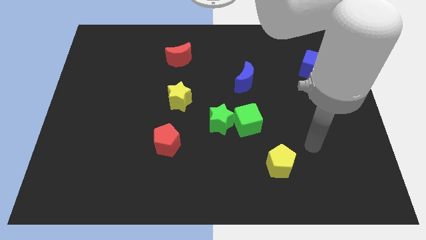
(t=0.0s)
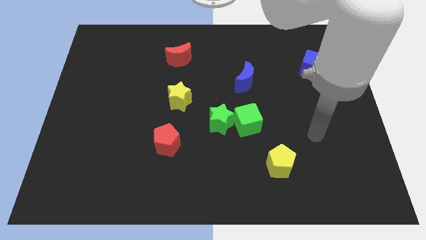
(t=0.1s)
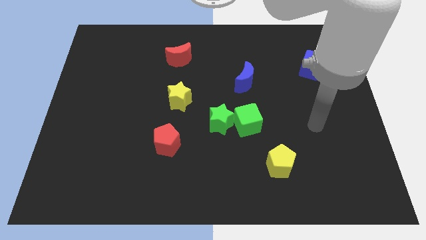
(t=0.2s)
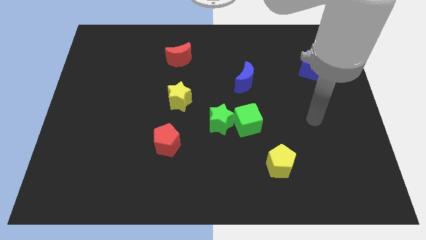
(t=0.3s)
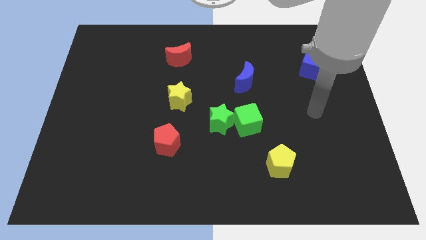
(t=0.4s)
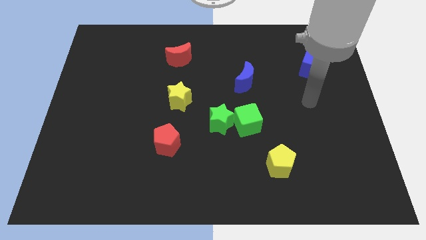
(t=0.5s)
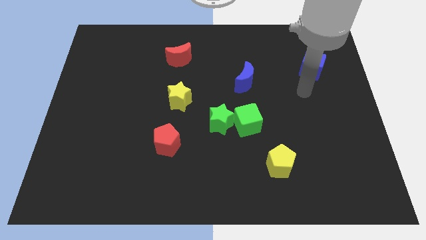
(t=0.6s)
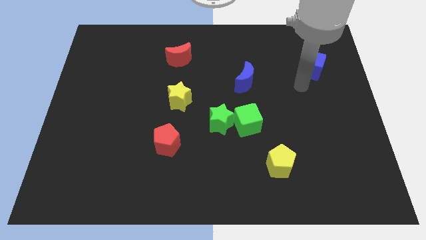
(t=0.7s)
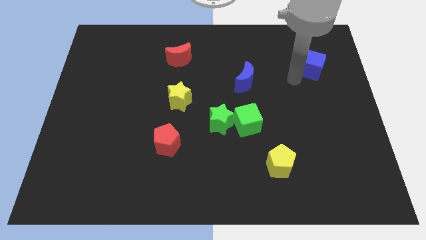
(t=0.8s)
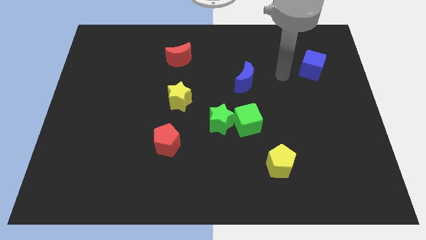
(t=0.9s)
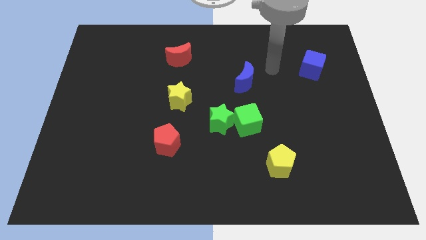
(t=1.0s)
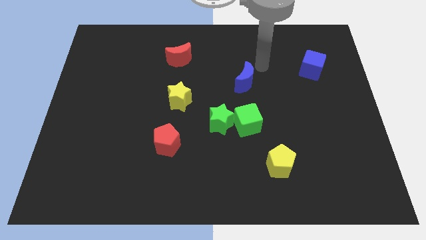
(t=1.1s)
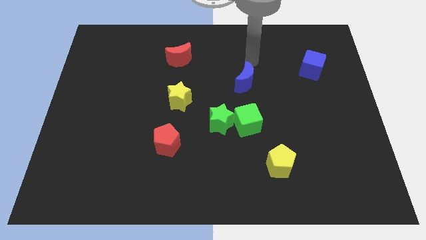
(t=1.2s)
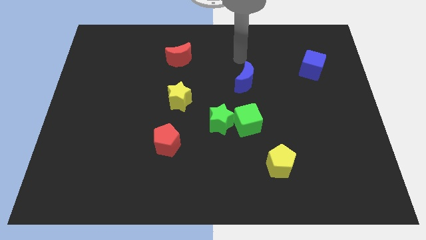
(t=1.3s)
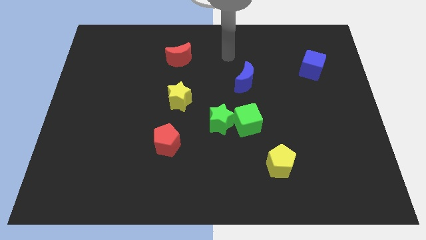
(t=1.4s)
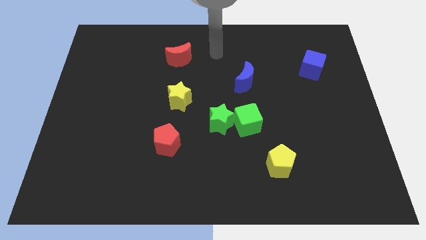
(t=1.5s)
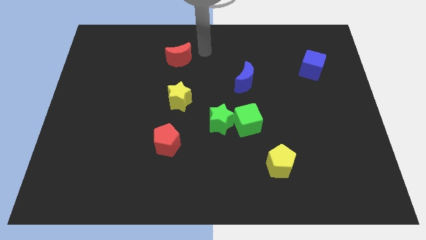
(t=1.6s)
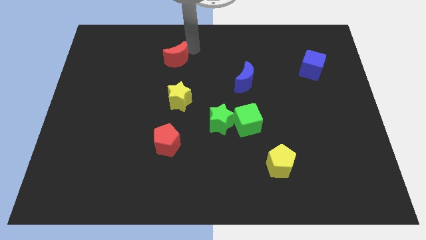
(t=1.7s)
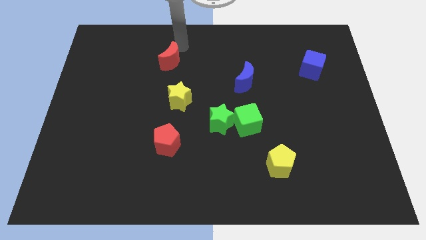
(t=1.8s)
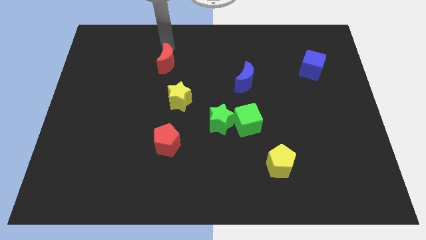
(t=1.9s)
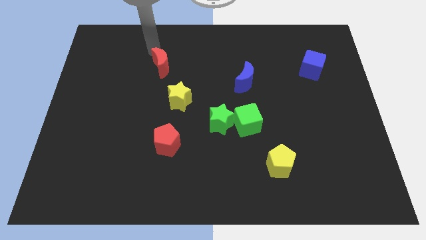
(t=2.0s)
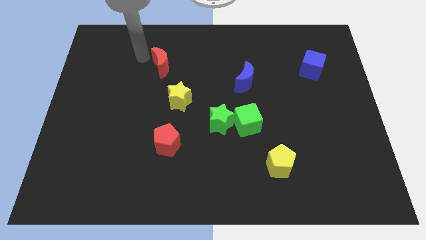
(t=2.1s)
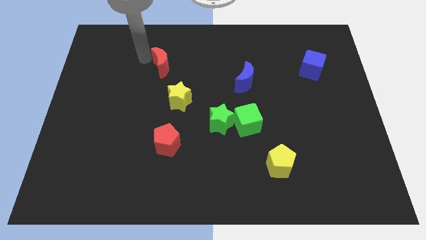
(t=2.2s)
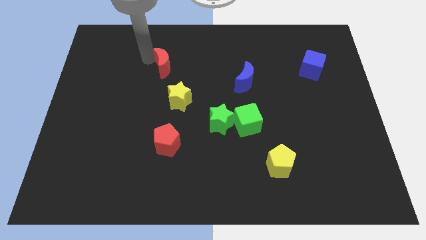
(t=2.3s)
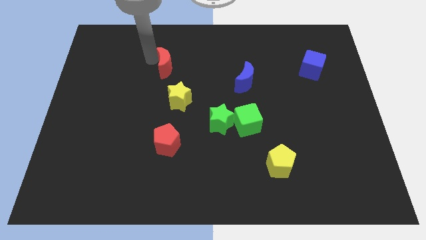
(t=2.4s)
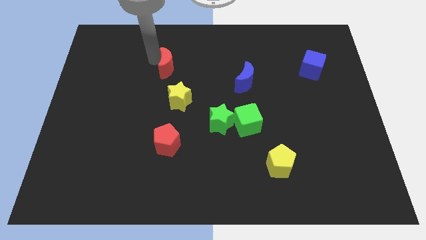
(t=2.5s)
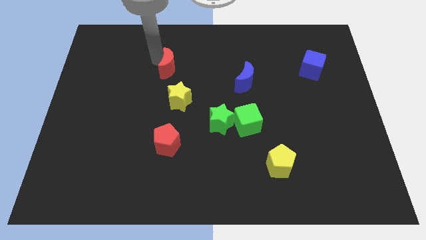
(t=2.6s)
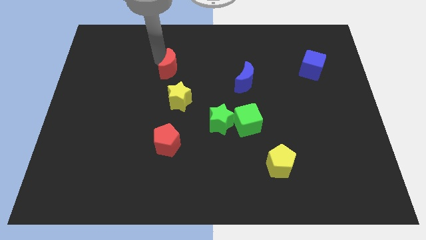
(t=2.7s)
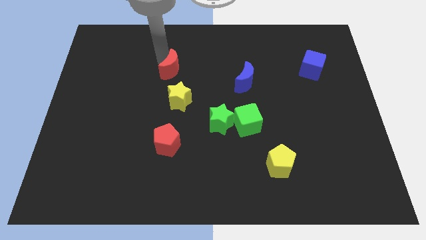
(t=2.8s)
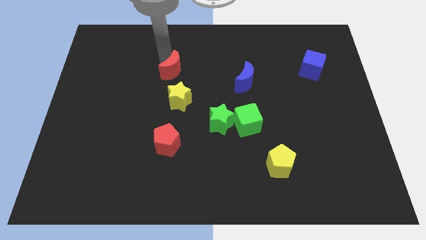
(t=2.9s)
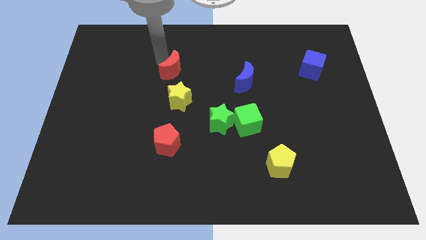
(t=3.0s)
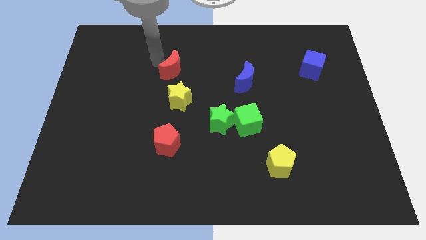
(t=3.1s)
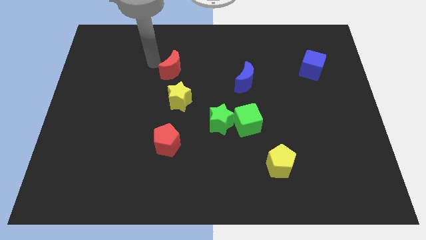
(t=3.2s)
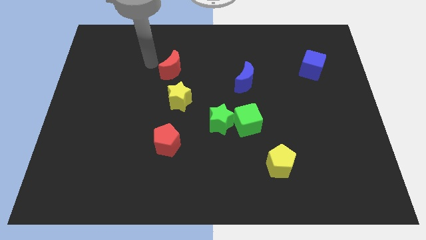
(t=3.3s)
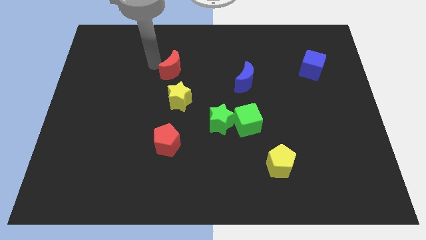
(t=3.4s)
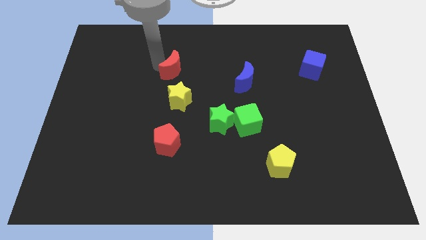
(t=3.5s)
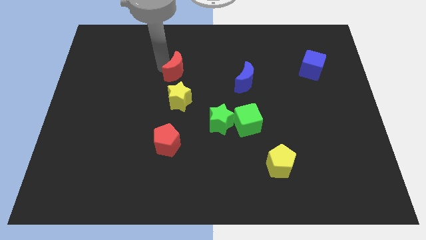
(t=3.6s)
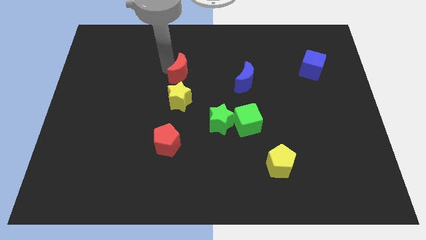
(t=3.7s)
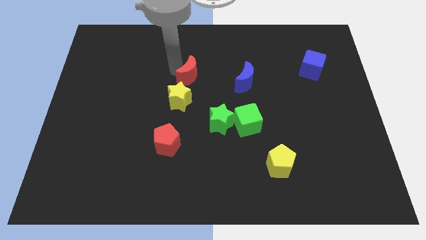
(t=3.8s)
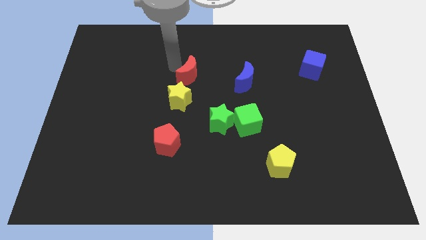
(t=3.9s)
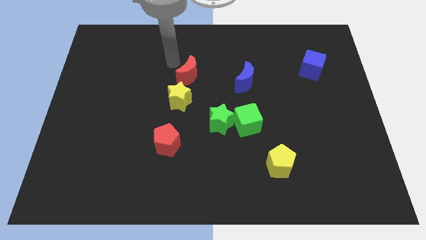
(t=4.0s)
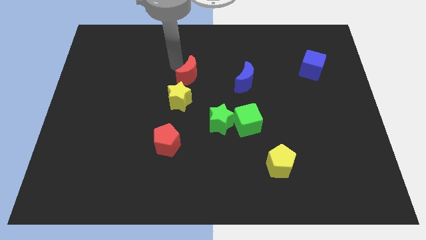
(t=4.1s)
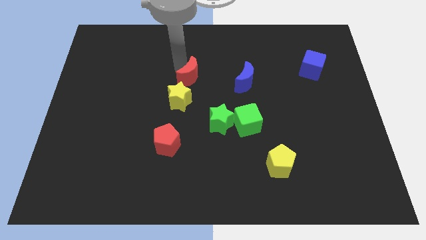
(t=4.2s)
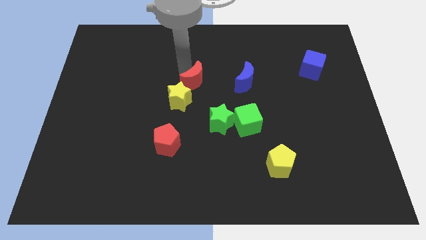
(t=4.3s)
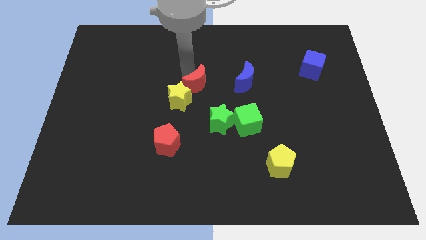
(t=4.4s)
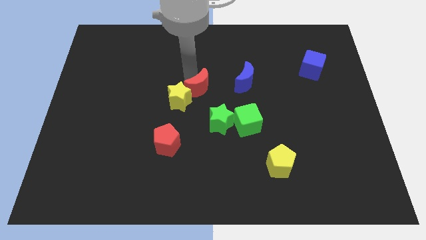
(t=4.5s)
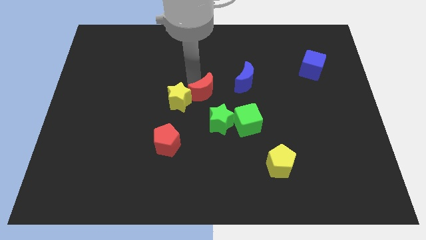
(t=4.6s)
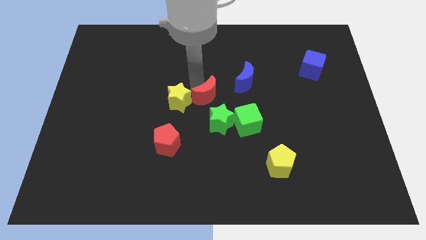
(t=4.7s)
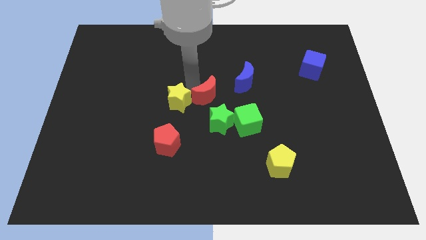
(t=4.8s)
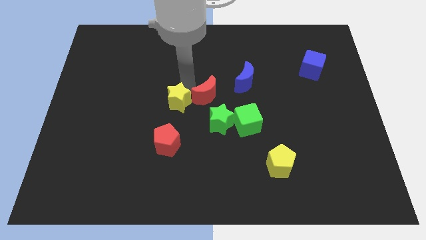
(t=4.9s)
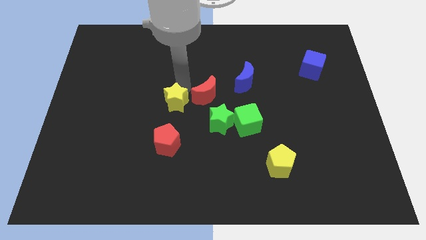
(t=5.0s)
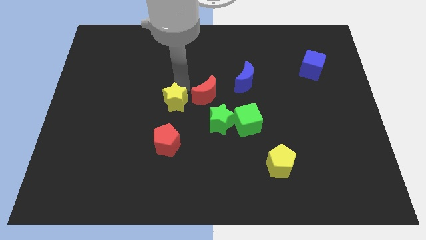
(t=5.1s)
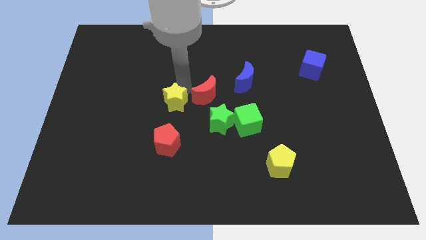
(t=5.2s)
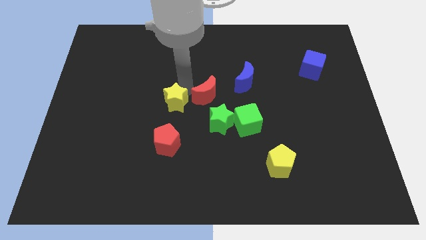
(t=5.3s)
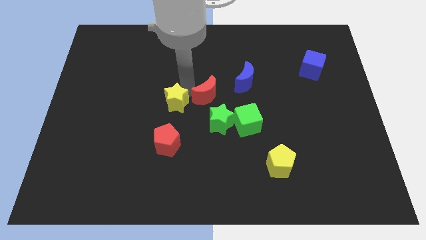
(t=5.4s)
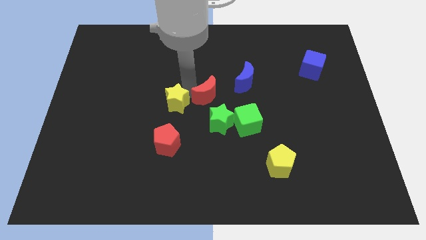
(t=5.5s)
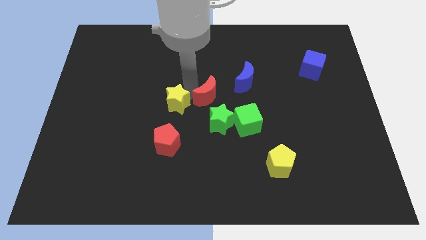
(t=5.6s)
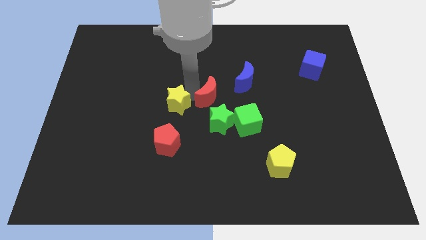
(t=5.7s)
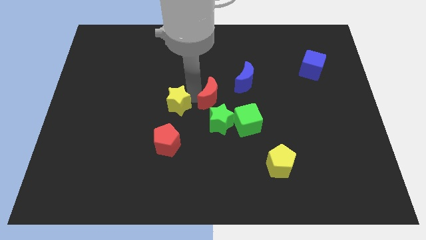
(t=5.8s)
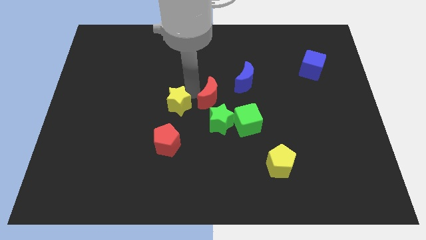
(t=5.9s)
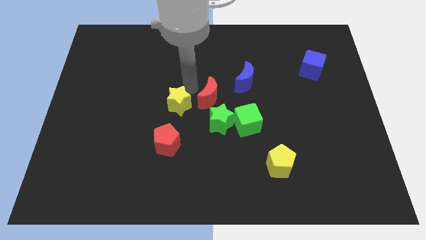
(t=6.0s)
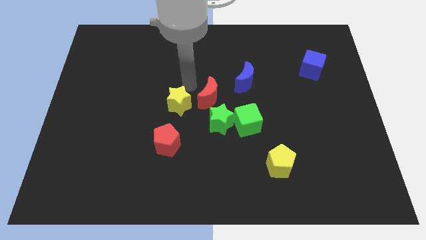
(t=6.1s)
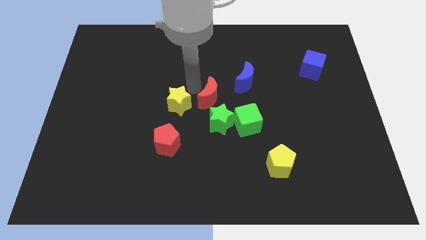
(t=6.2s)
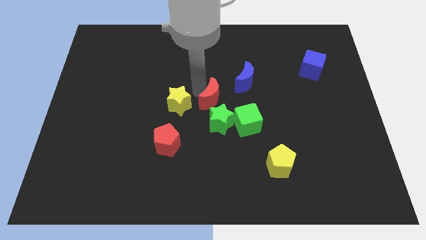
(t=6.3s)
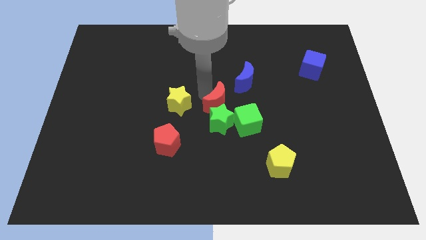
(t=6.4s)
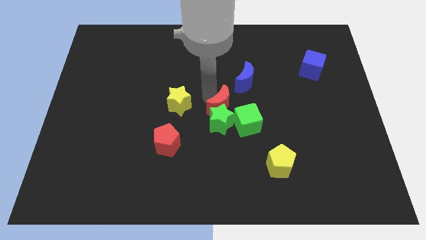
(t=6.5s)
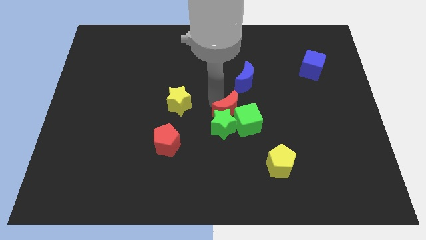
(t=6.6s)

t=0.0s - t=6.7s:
put the red moon next to the green cube
